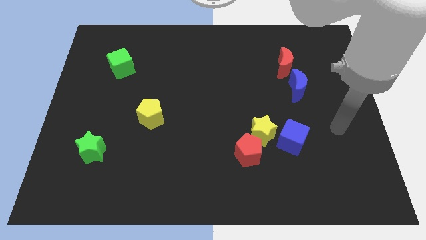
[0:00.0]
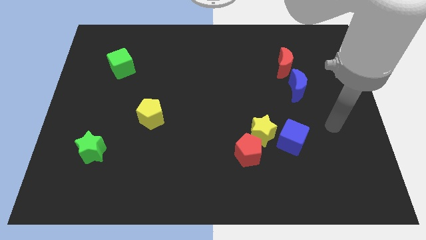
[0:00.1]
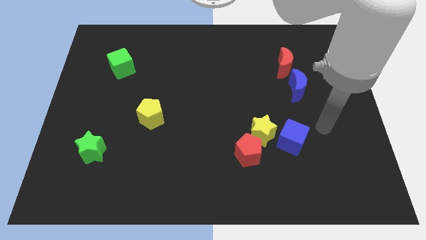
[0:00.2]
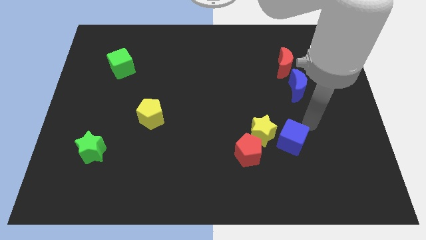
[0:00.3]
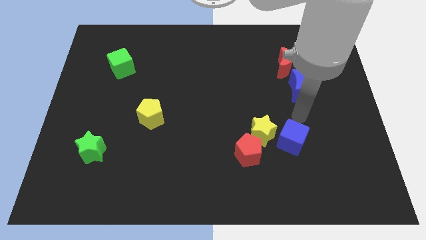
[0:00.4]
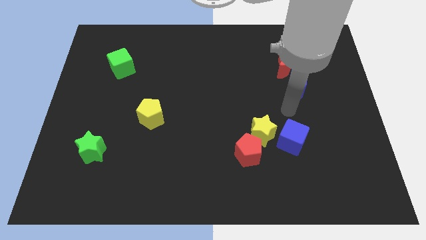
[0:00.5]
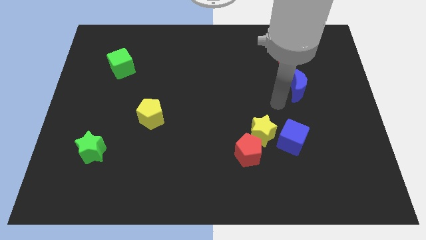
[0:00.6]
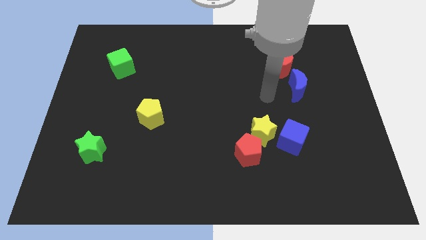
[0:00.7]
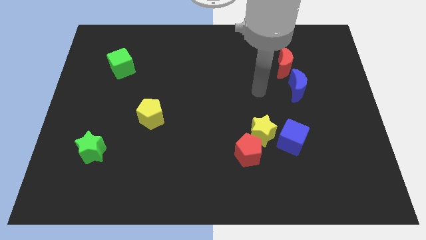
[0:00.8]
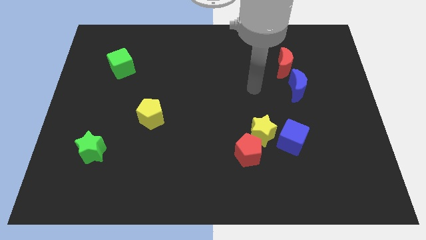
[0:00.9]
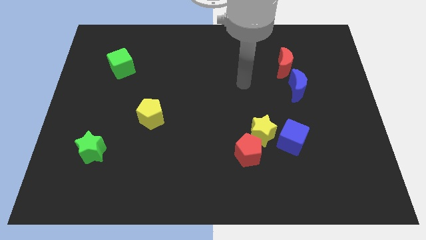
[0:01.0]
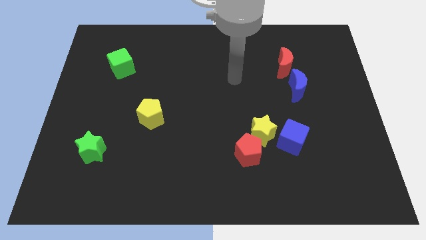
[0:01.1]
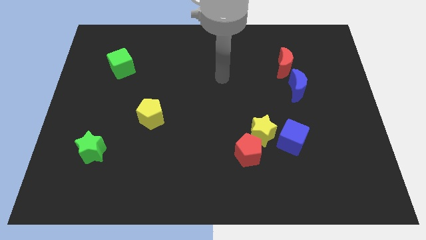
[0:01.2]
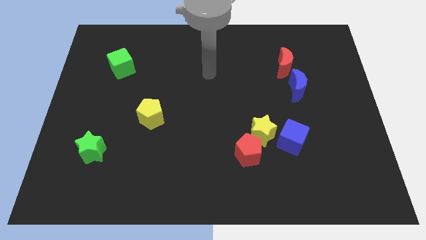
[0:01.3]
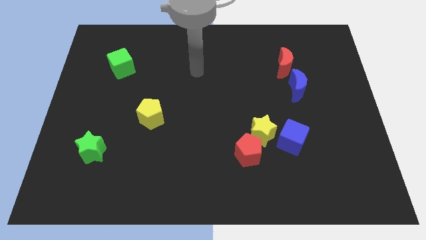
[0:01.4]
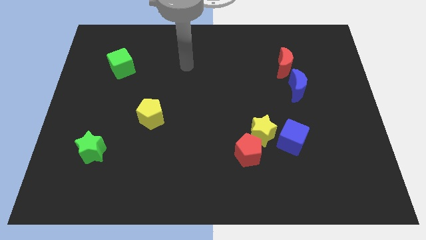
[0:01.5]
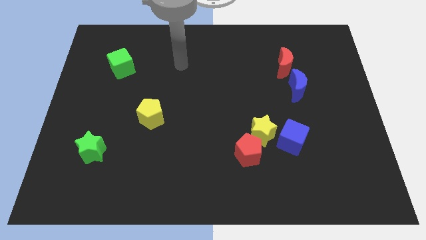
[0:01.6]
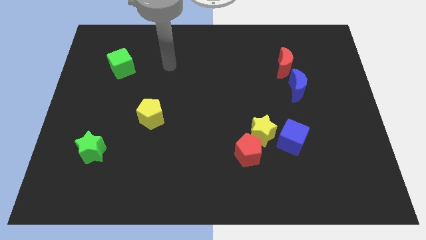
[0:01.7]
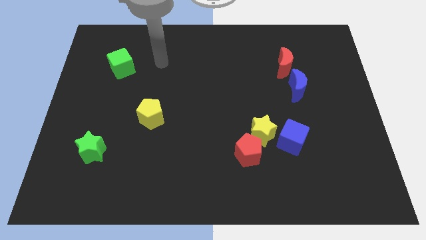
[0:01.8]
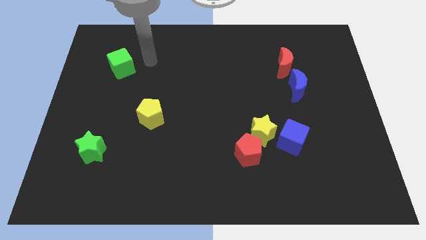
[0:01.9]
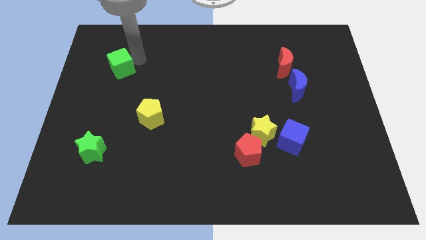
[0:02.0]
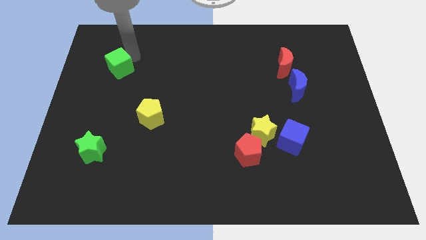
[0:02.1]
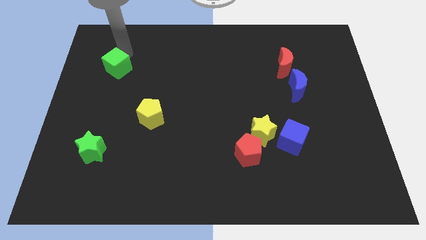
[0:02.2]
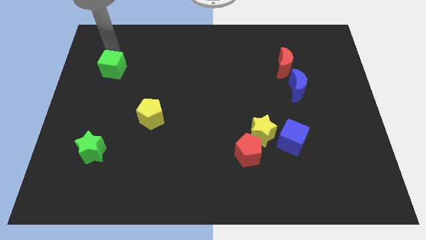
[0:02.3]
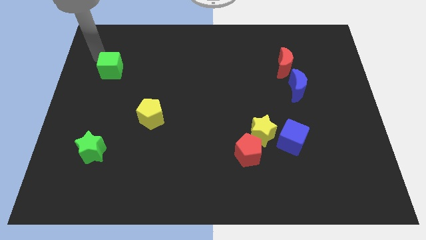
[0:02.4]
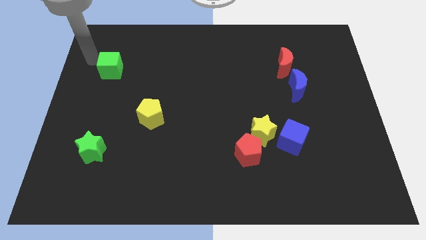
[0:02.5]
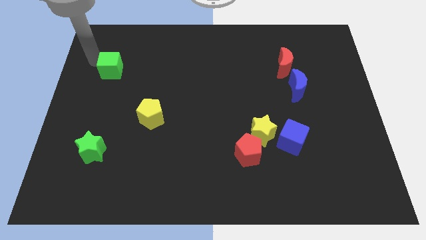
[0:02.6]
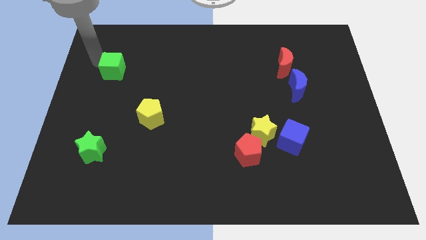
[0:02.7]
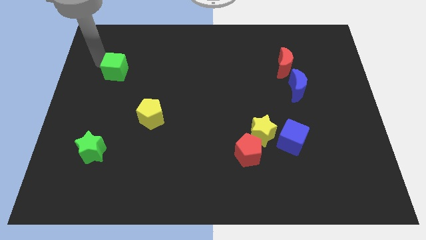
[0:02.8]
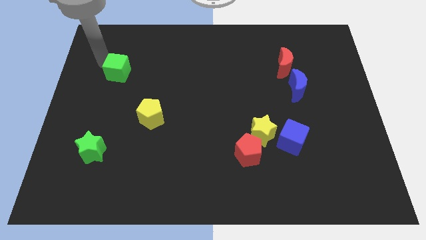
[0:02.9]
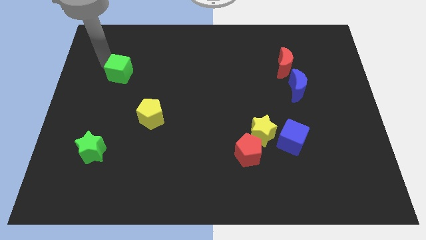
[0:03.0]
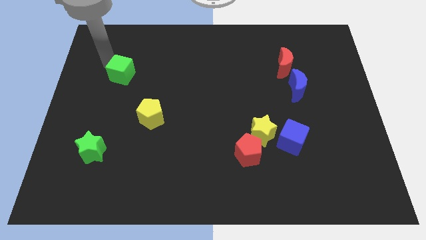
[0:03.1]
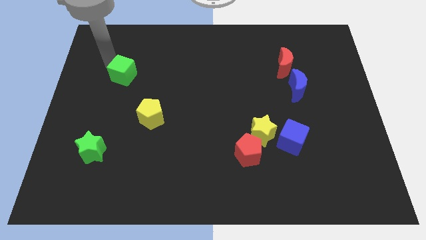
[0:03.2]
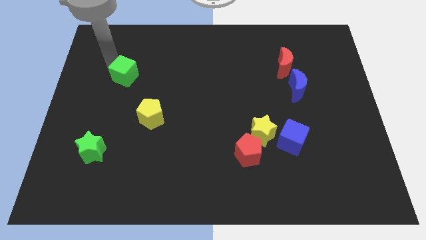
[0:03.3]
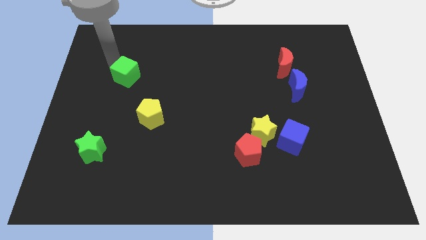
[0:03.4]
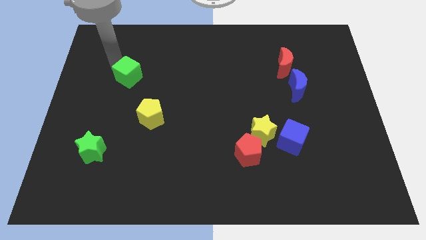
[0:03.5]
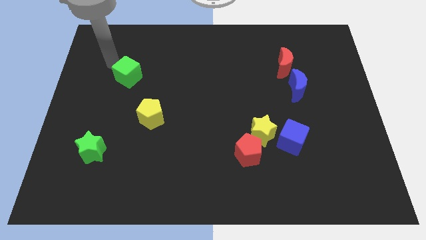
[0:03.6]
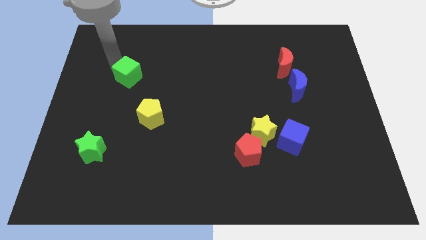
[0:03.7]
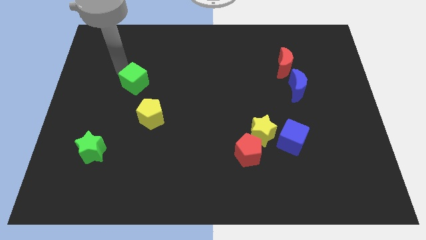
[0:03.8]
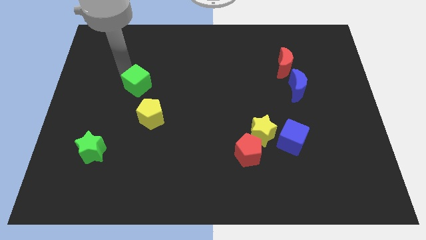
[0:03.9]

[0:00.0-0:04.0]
slightly push the green cube down and right diagonally

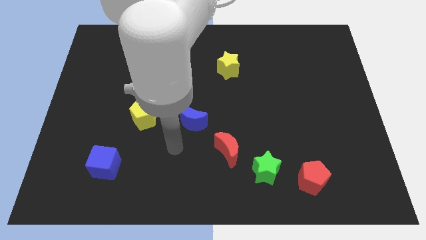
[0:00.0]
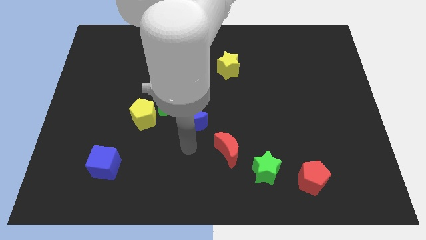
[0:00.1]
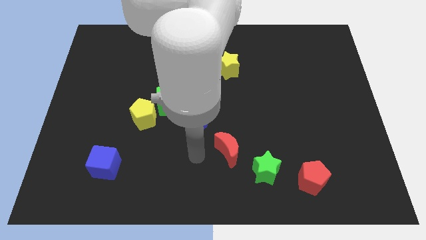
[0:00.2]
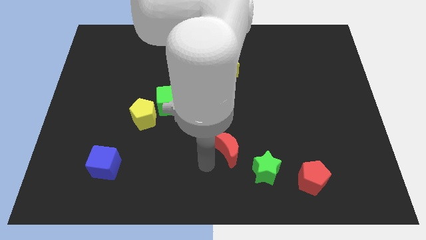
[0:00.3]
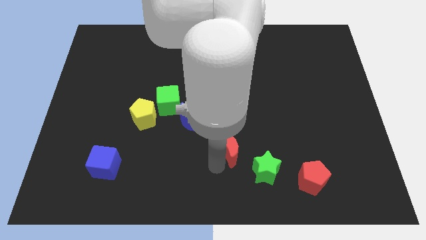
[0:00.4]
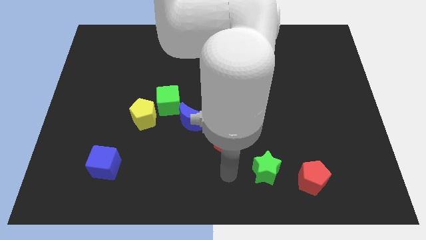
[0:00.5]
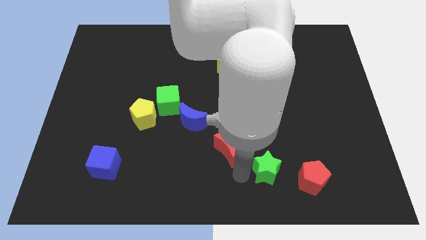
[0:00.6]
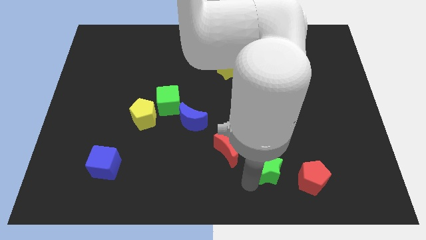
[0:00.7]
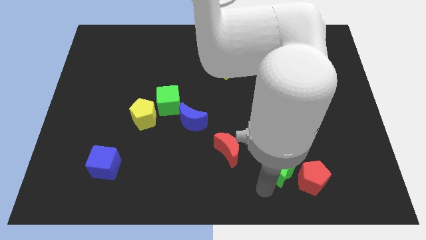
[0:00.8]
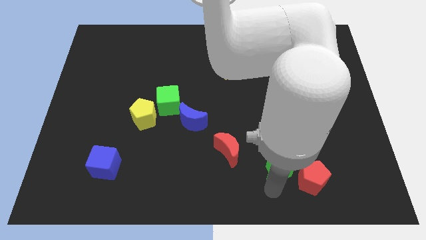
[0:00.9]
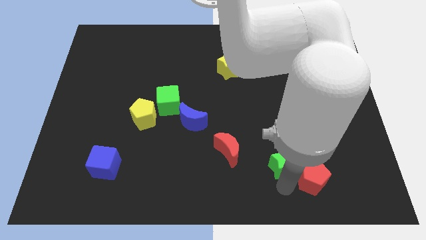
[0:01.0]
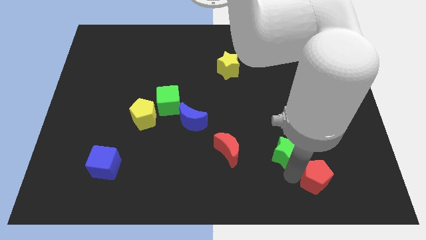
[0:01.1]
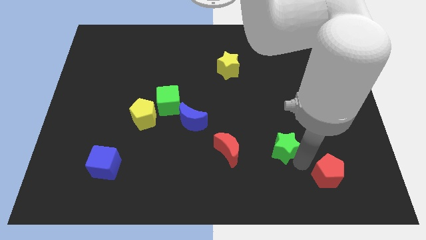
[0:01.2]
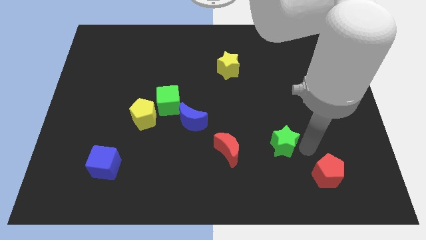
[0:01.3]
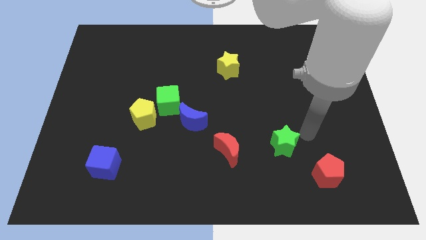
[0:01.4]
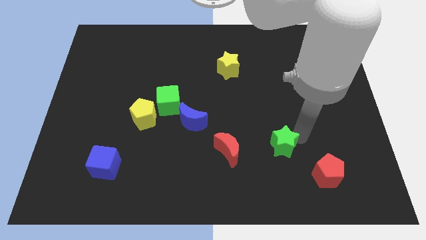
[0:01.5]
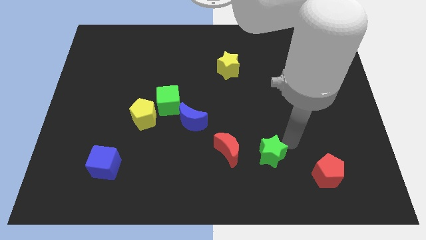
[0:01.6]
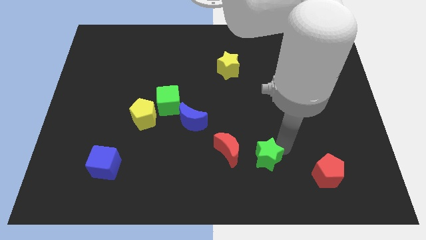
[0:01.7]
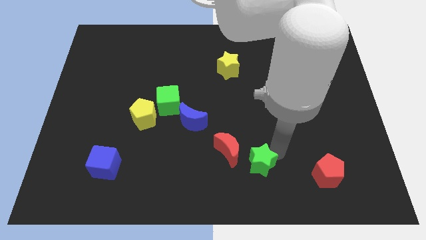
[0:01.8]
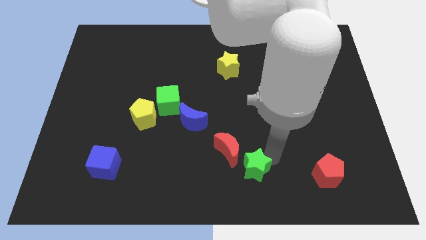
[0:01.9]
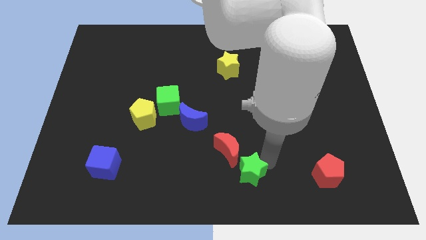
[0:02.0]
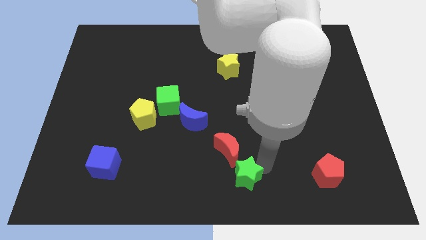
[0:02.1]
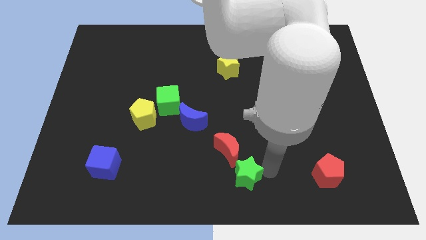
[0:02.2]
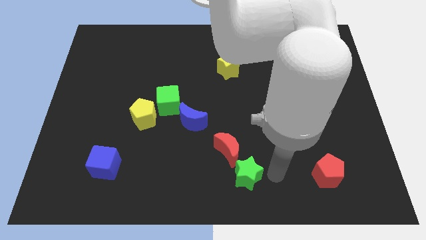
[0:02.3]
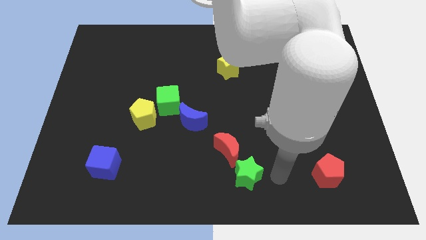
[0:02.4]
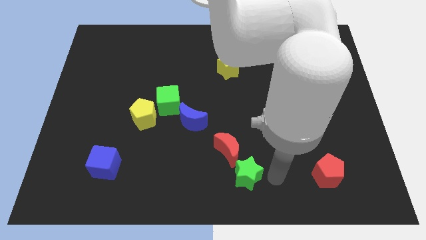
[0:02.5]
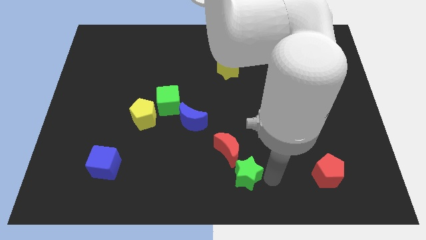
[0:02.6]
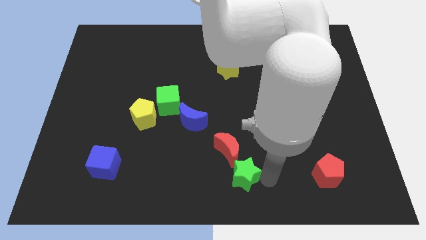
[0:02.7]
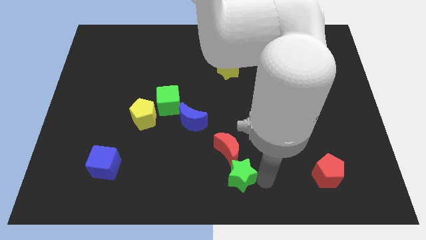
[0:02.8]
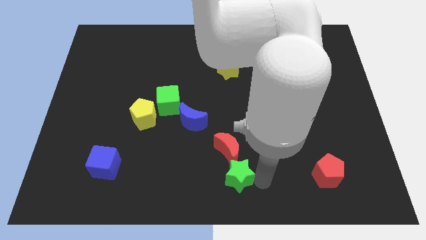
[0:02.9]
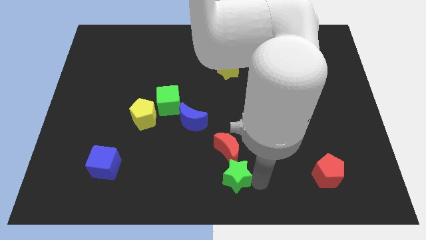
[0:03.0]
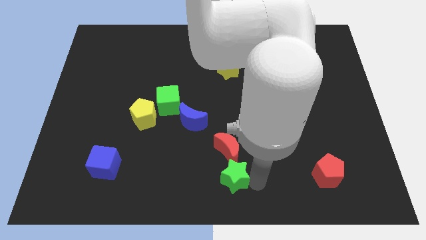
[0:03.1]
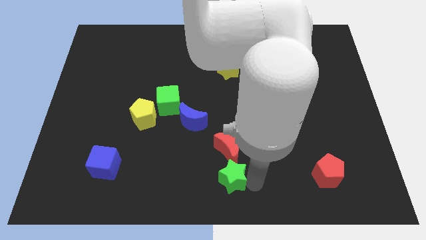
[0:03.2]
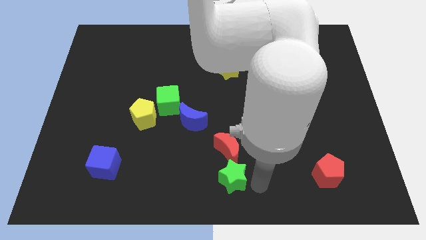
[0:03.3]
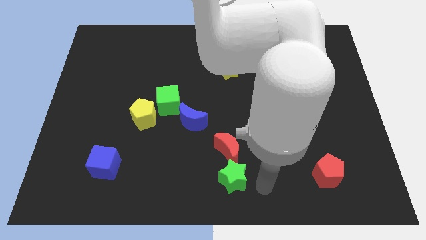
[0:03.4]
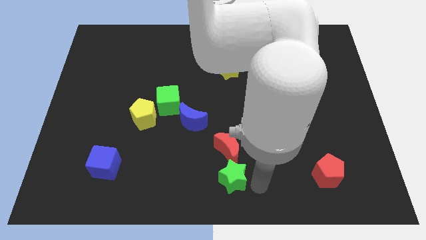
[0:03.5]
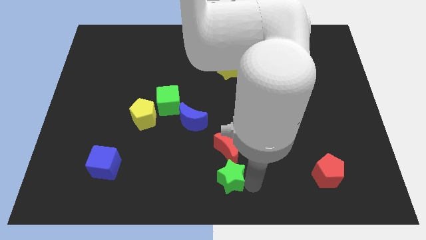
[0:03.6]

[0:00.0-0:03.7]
slightly slide the green star left

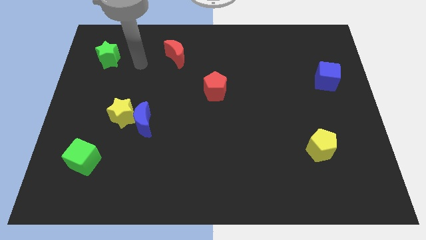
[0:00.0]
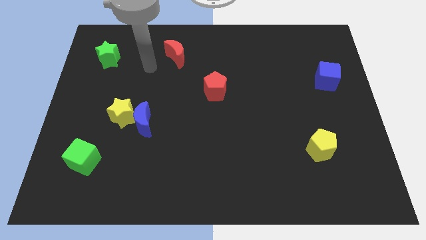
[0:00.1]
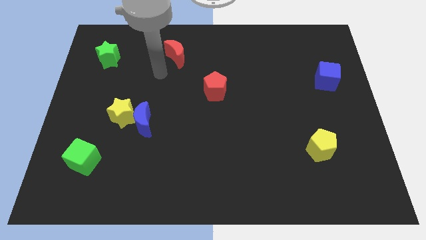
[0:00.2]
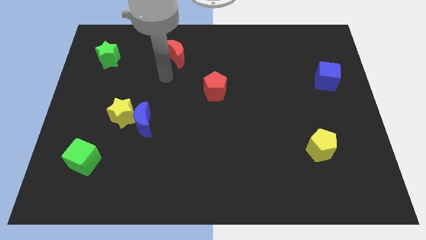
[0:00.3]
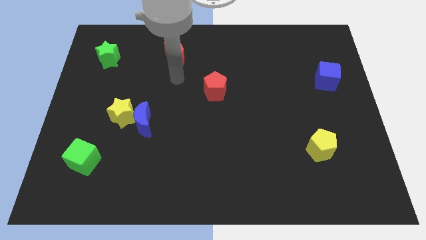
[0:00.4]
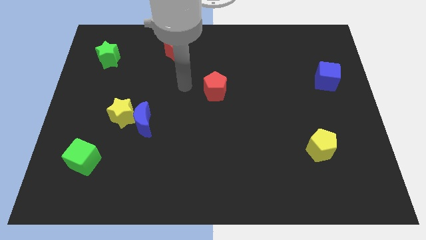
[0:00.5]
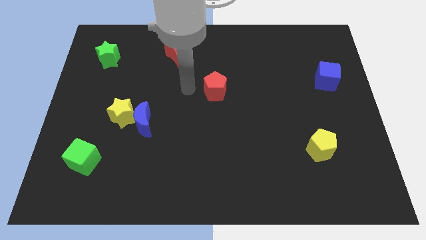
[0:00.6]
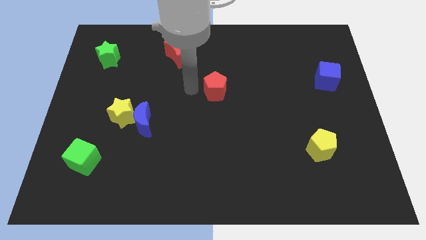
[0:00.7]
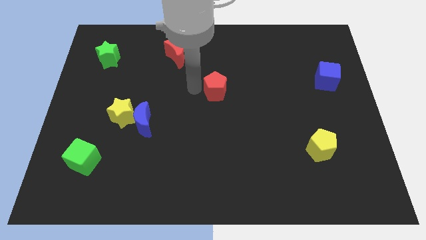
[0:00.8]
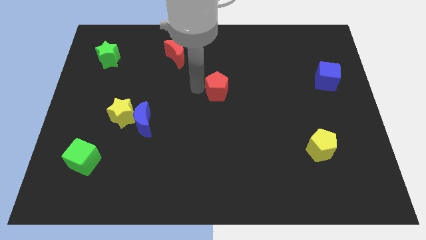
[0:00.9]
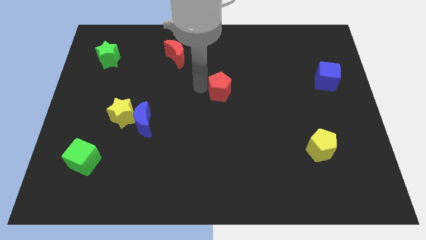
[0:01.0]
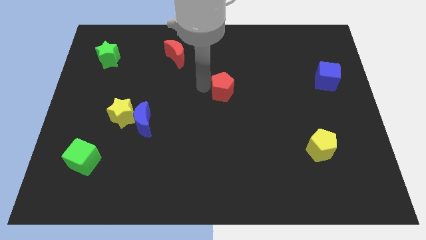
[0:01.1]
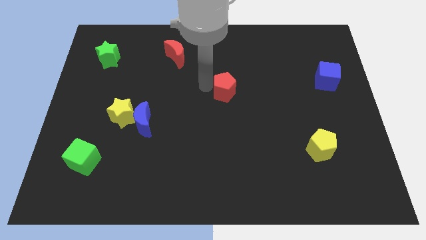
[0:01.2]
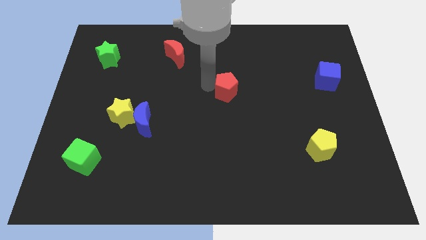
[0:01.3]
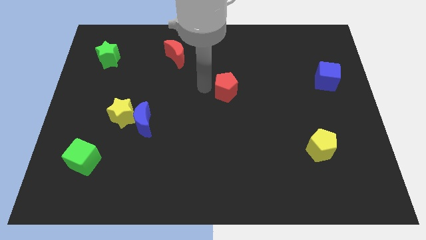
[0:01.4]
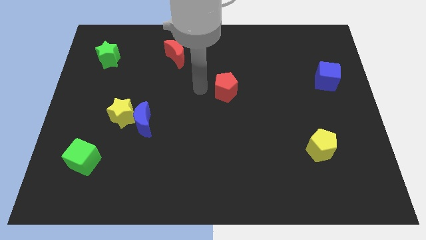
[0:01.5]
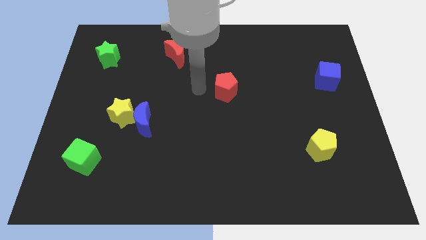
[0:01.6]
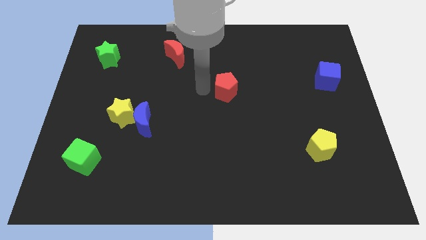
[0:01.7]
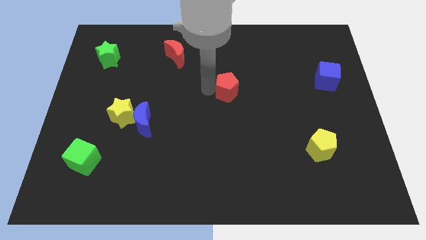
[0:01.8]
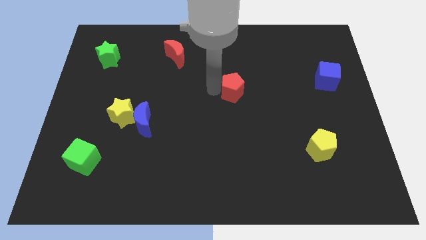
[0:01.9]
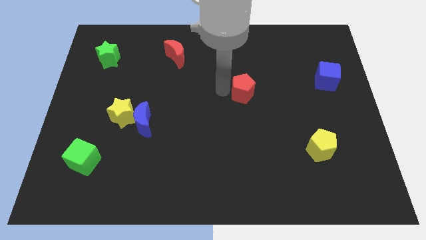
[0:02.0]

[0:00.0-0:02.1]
move the red pentagon a little to the right
